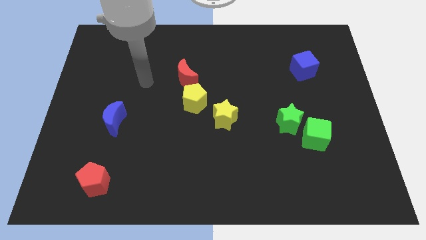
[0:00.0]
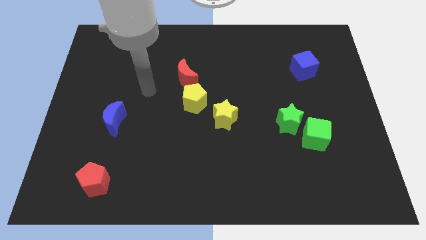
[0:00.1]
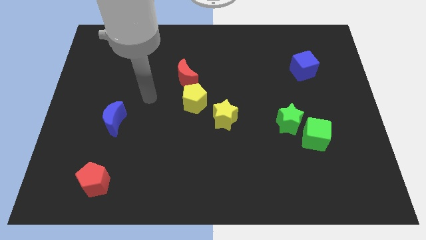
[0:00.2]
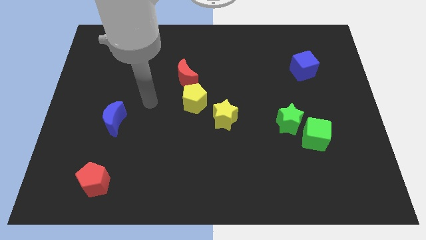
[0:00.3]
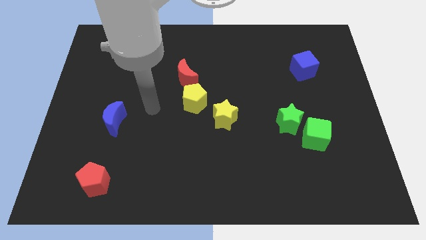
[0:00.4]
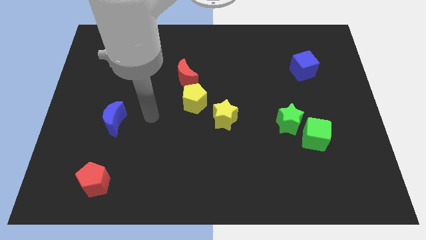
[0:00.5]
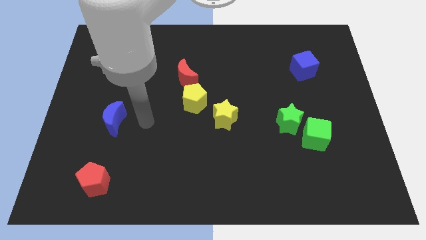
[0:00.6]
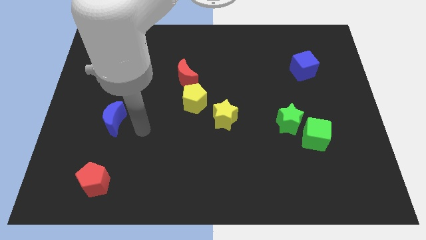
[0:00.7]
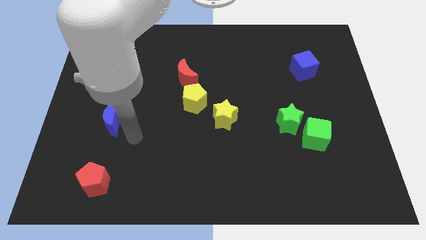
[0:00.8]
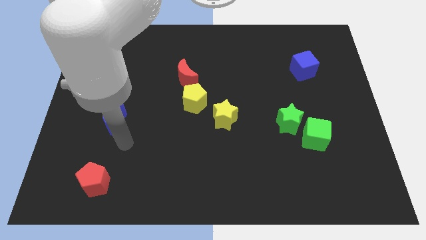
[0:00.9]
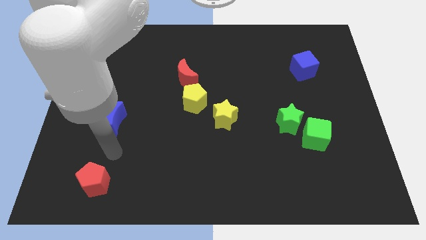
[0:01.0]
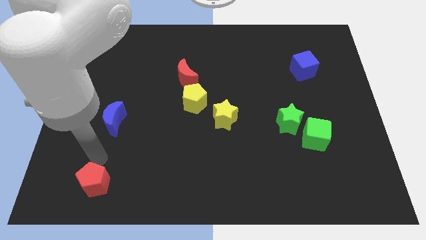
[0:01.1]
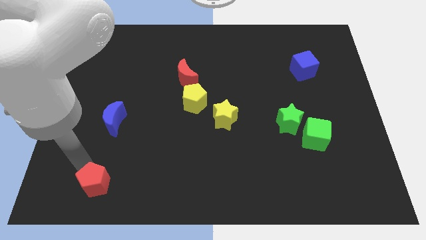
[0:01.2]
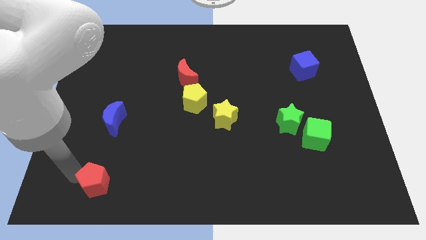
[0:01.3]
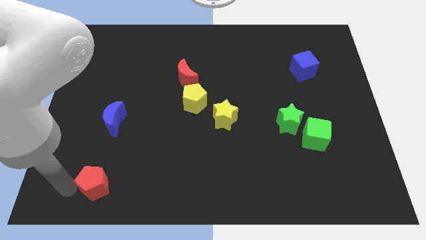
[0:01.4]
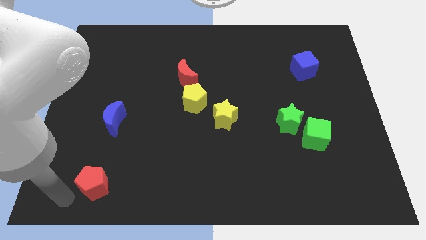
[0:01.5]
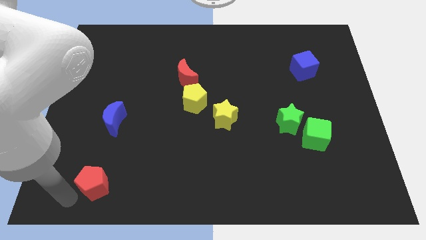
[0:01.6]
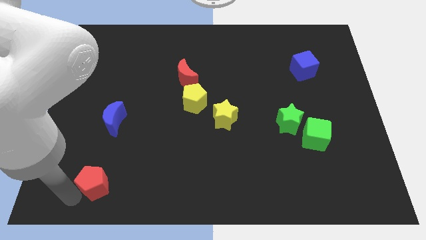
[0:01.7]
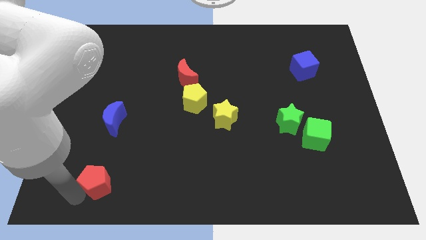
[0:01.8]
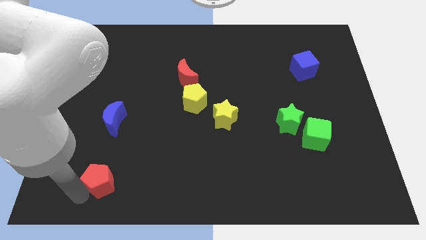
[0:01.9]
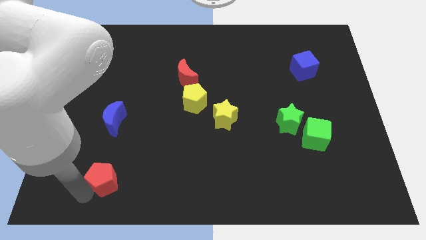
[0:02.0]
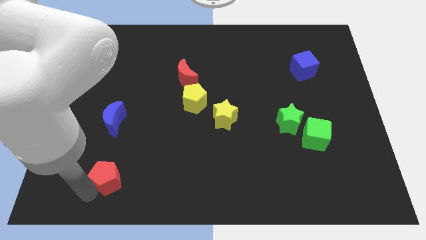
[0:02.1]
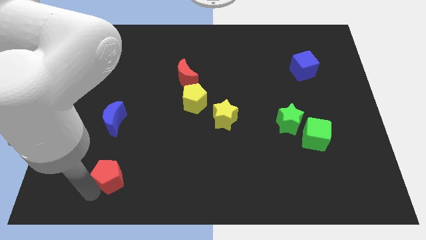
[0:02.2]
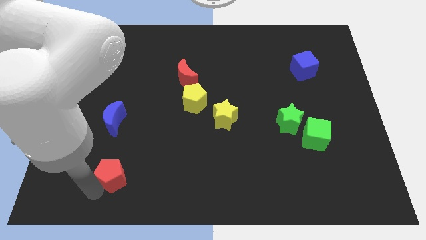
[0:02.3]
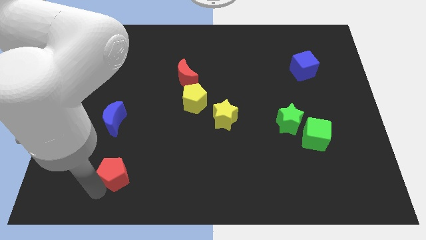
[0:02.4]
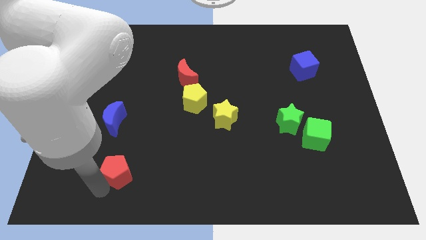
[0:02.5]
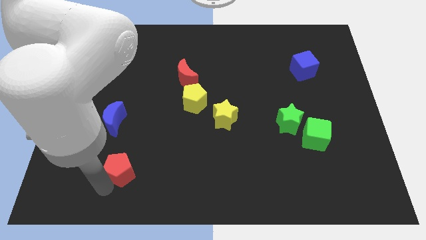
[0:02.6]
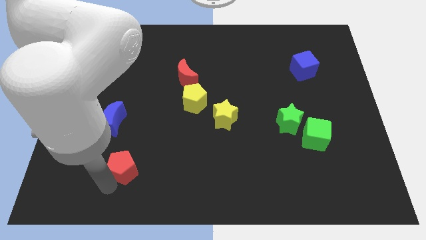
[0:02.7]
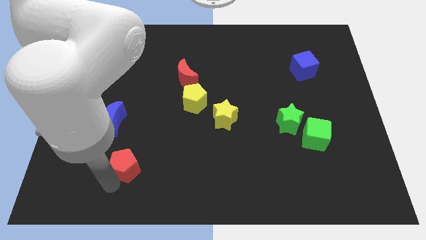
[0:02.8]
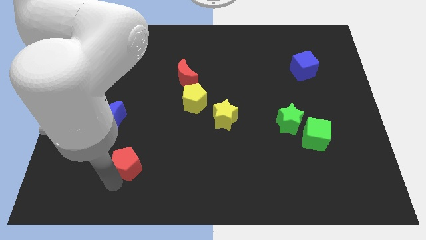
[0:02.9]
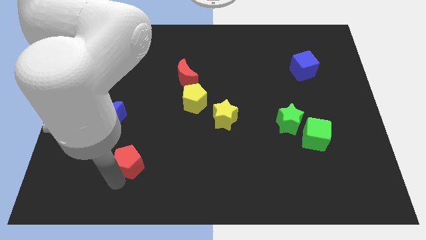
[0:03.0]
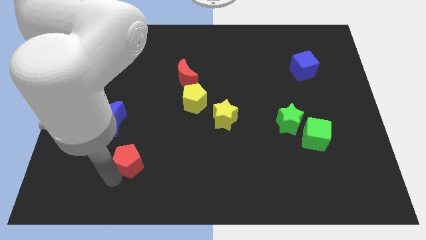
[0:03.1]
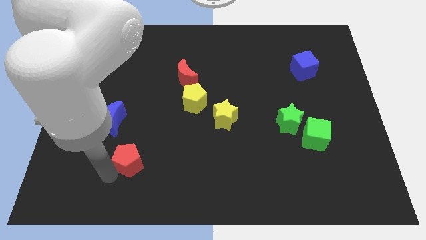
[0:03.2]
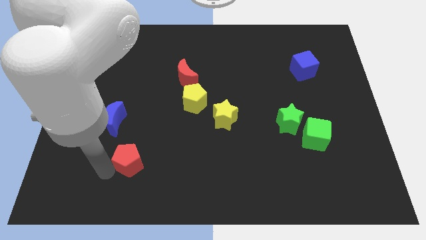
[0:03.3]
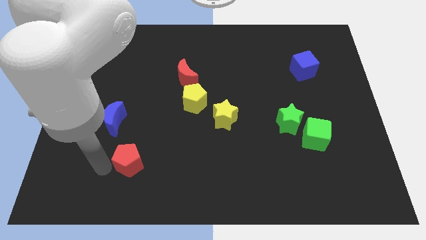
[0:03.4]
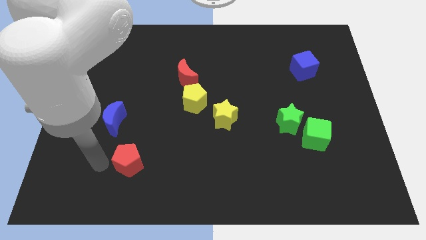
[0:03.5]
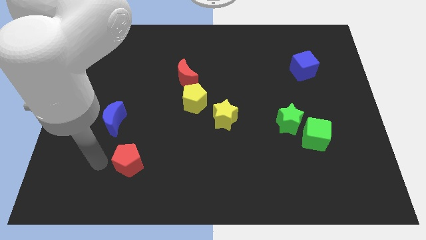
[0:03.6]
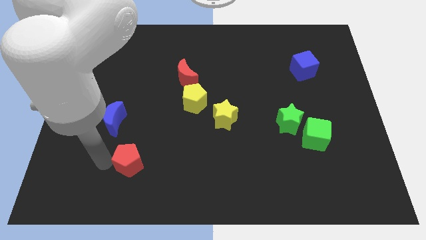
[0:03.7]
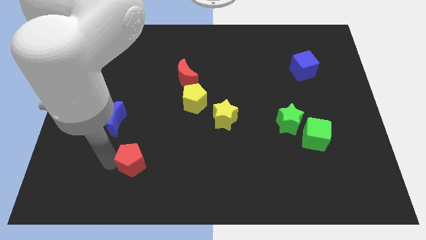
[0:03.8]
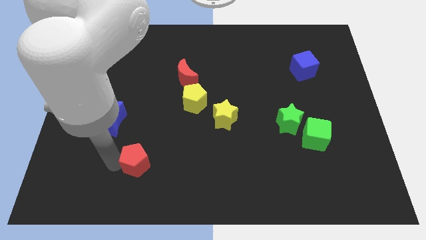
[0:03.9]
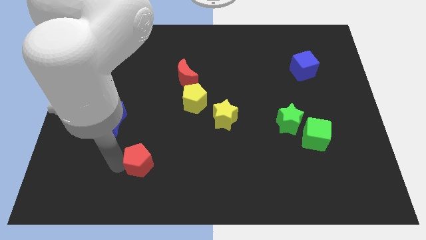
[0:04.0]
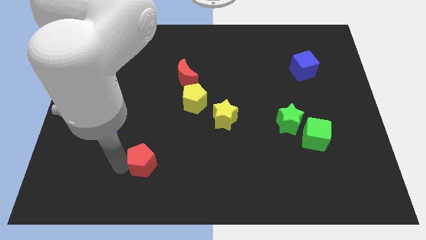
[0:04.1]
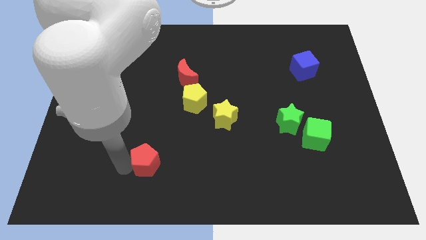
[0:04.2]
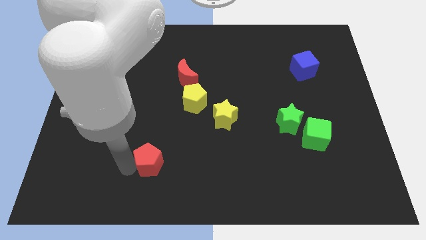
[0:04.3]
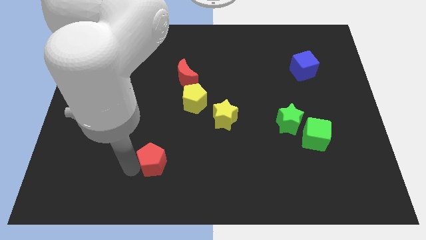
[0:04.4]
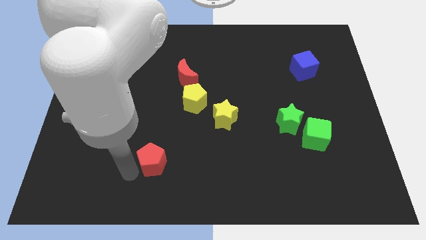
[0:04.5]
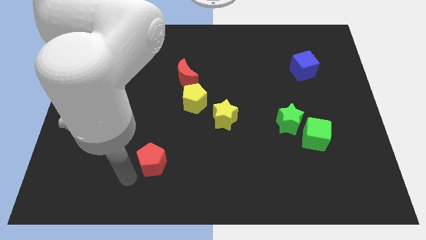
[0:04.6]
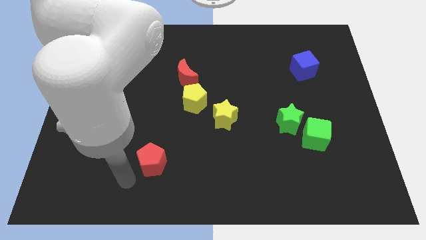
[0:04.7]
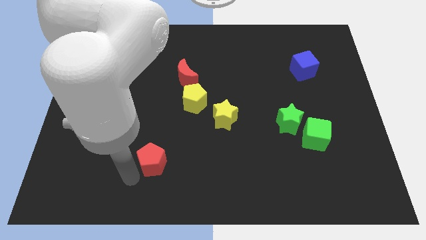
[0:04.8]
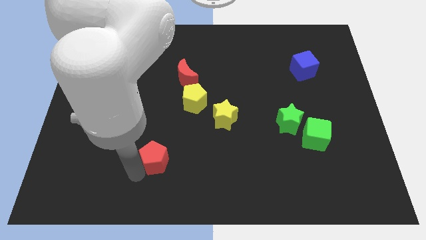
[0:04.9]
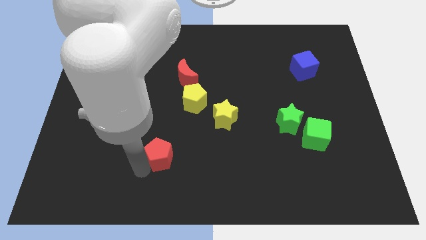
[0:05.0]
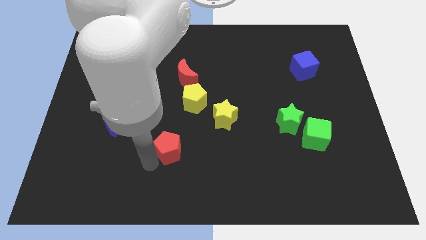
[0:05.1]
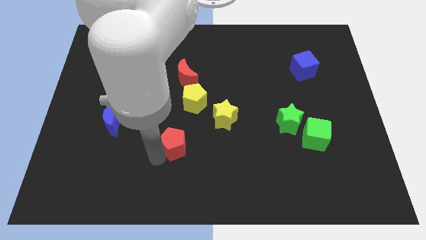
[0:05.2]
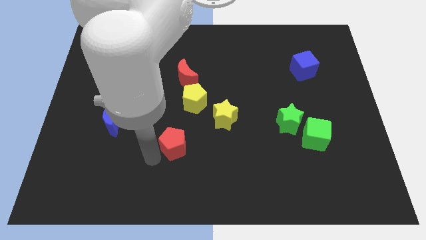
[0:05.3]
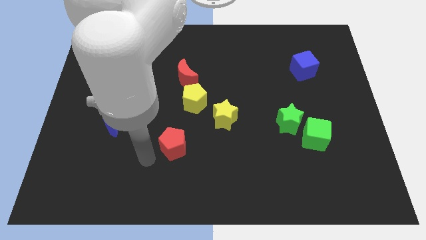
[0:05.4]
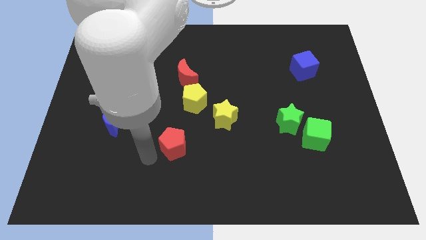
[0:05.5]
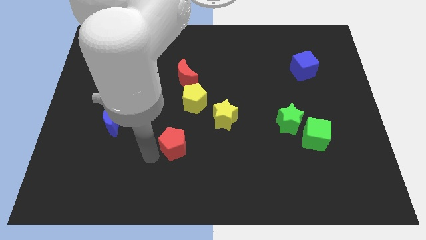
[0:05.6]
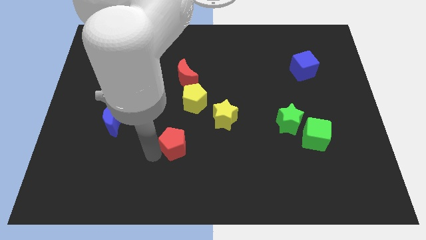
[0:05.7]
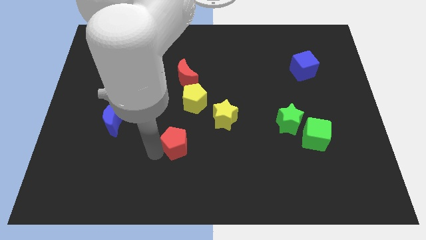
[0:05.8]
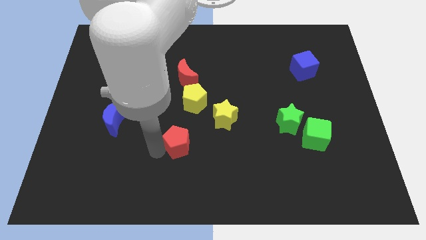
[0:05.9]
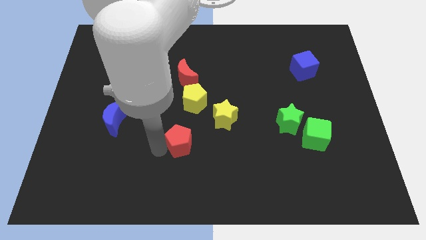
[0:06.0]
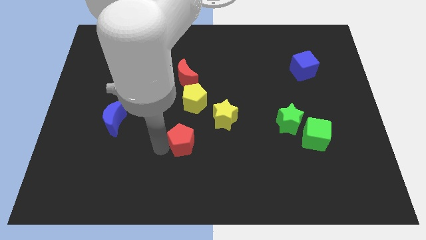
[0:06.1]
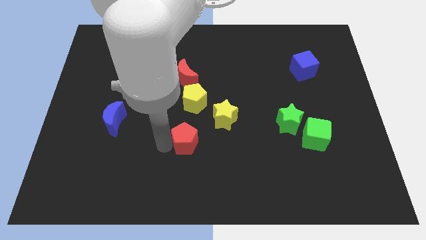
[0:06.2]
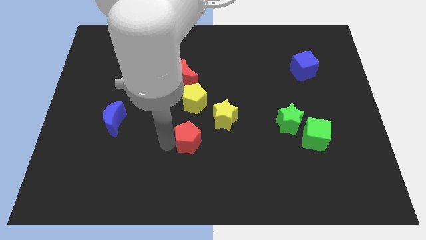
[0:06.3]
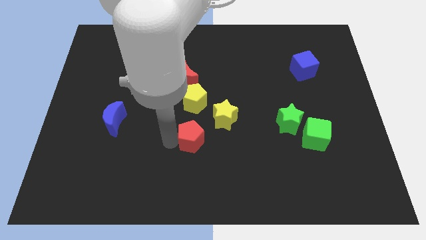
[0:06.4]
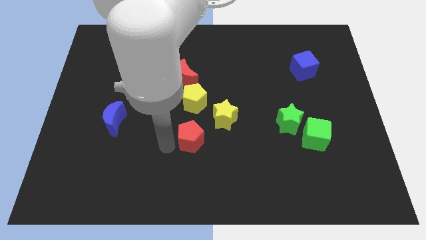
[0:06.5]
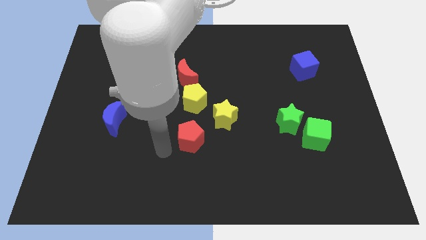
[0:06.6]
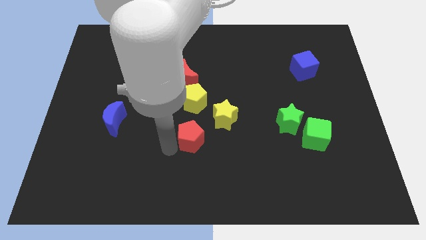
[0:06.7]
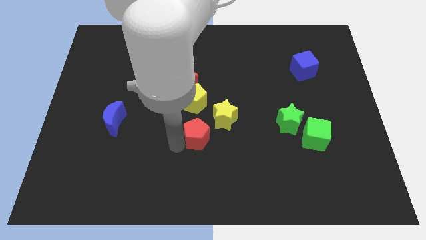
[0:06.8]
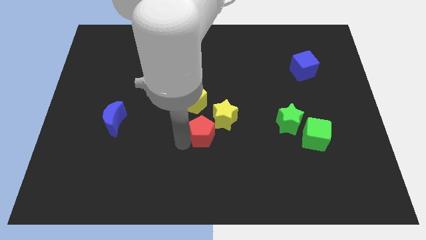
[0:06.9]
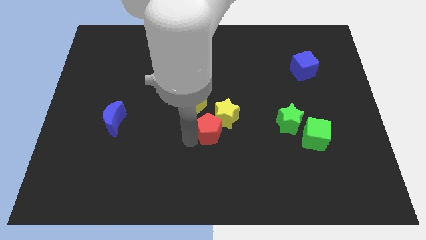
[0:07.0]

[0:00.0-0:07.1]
move the red pentagon close to the yellow star

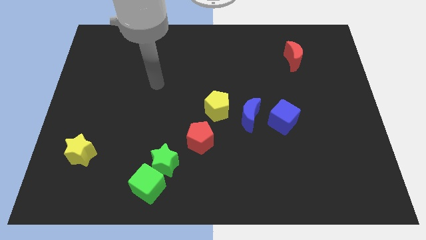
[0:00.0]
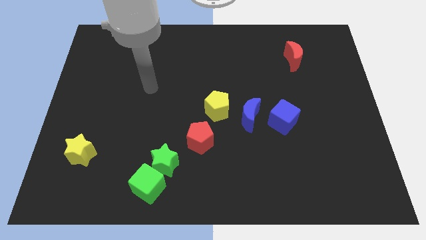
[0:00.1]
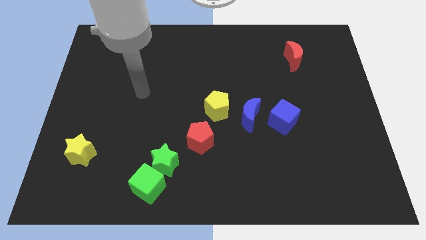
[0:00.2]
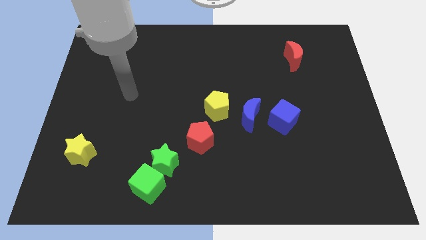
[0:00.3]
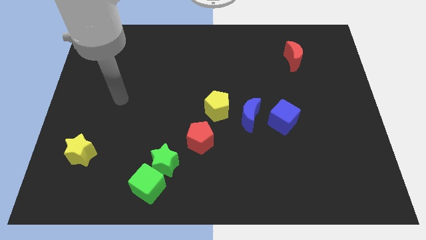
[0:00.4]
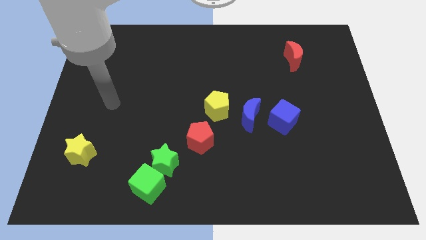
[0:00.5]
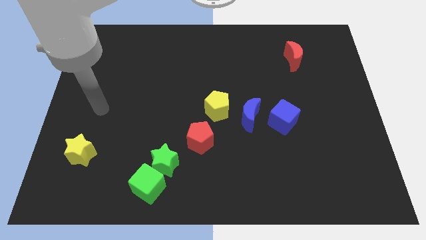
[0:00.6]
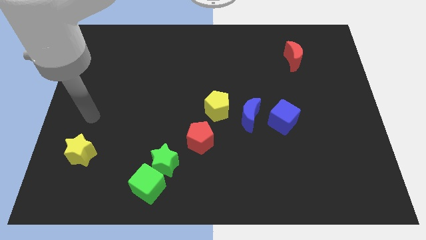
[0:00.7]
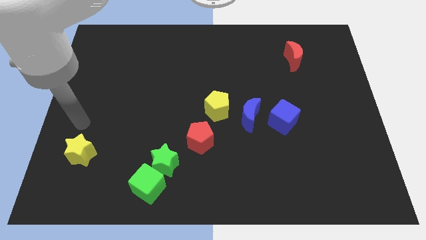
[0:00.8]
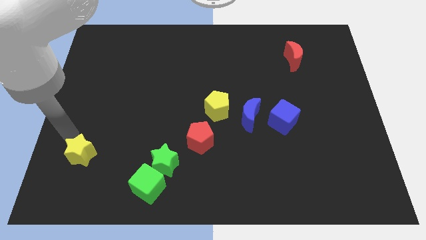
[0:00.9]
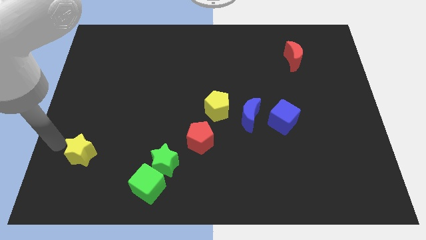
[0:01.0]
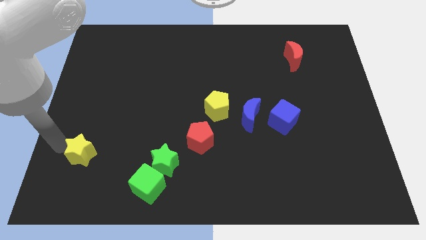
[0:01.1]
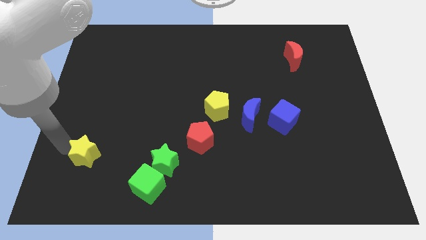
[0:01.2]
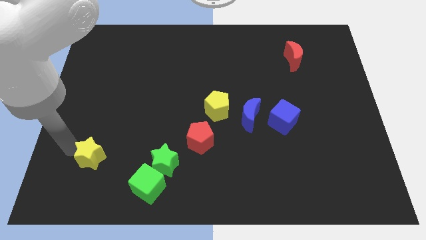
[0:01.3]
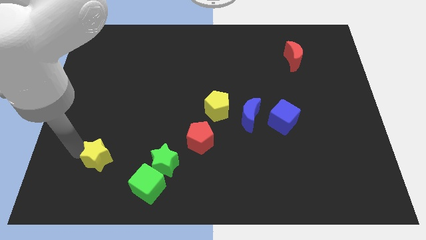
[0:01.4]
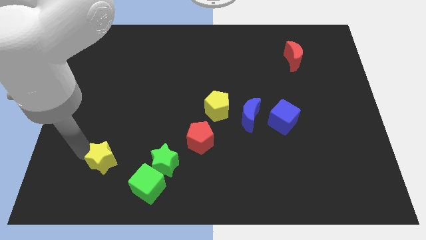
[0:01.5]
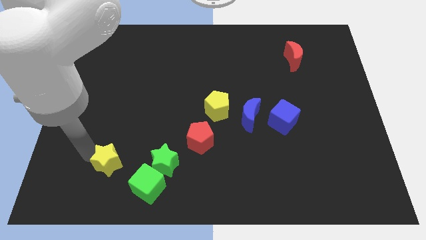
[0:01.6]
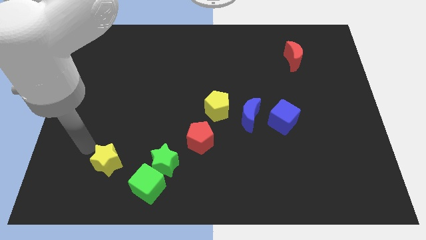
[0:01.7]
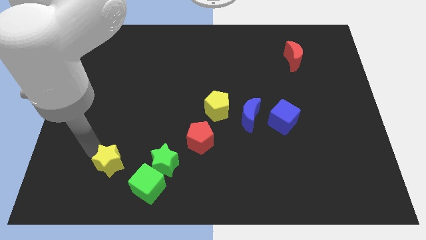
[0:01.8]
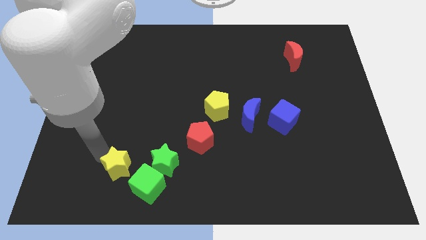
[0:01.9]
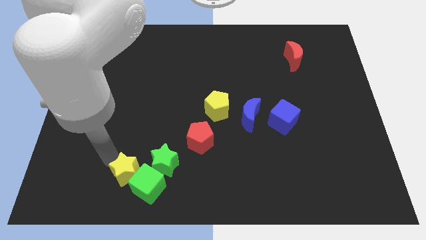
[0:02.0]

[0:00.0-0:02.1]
slide the yellow star towards the green cube
